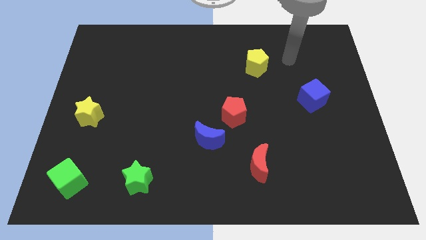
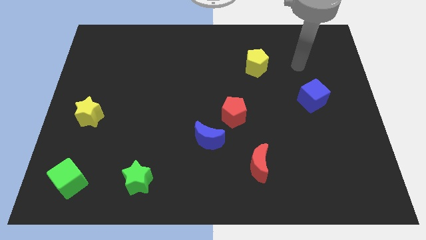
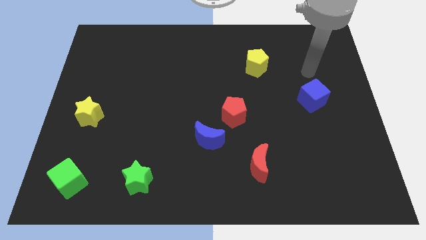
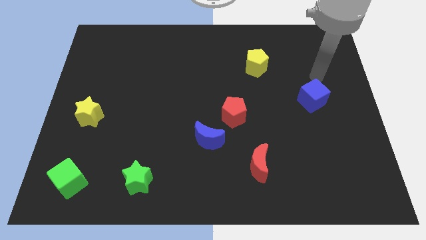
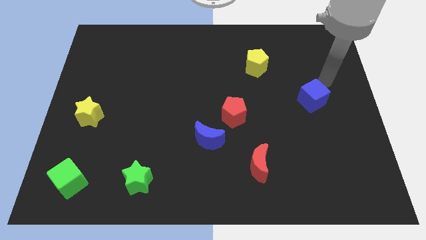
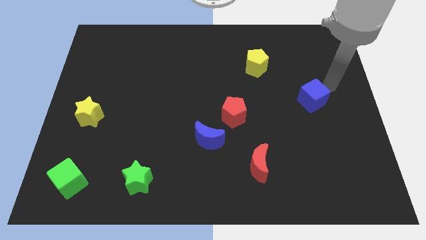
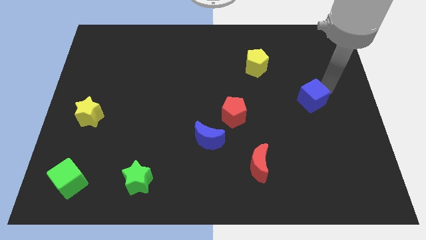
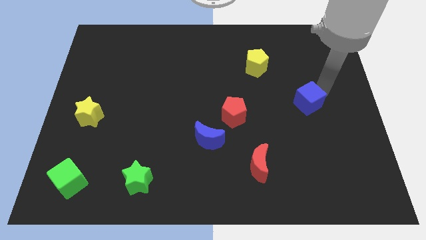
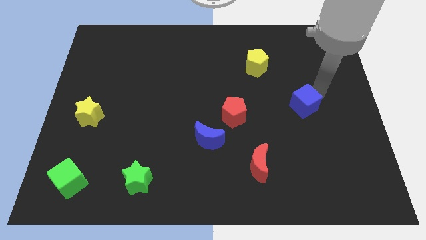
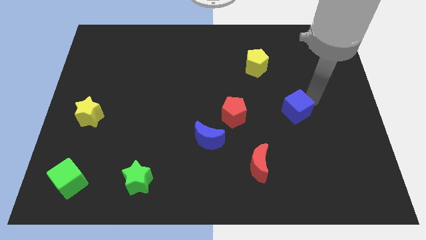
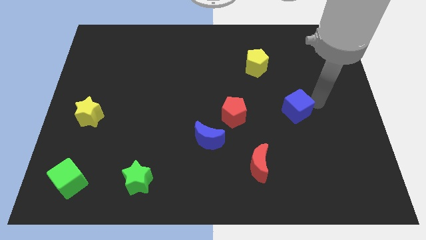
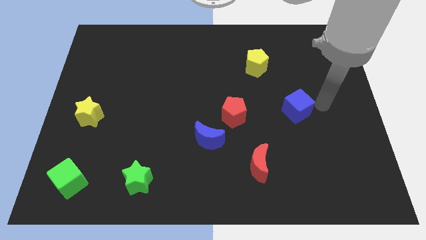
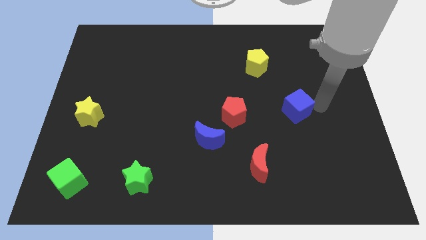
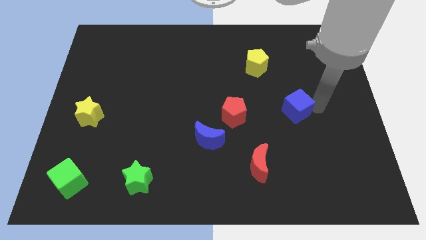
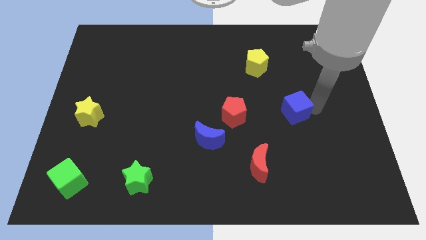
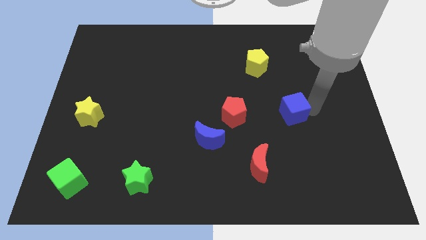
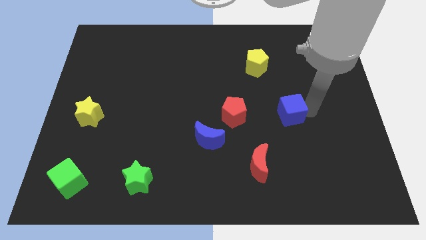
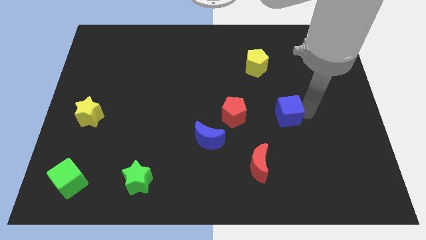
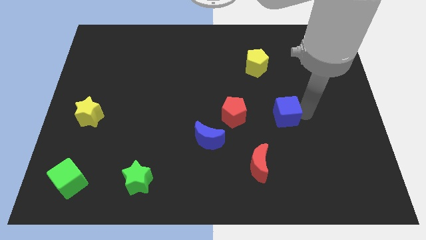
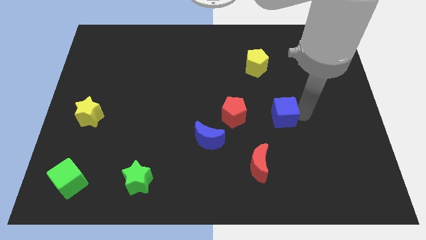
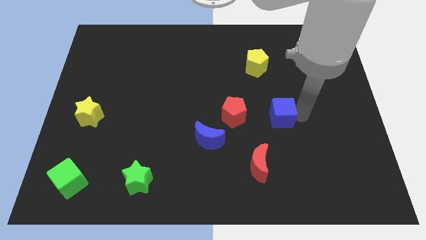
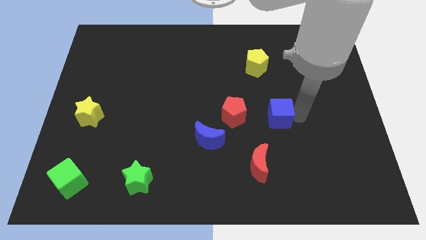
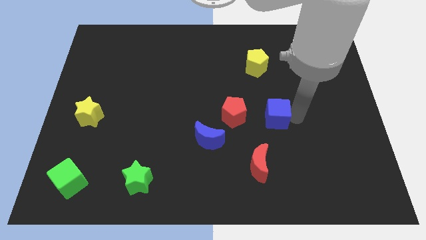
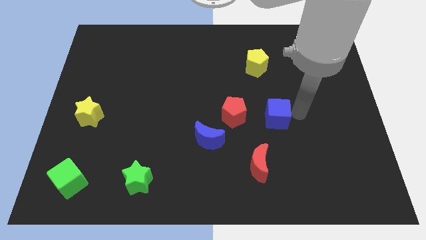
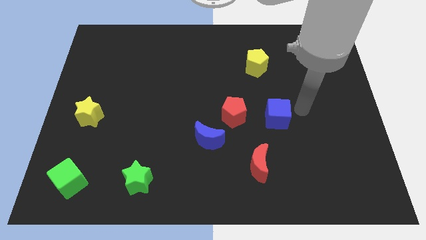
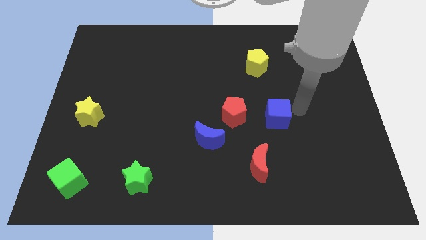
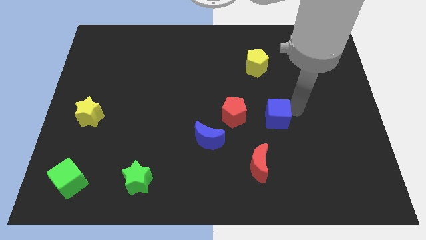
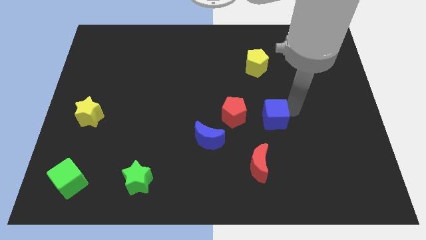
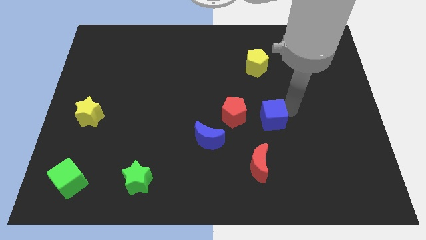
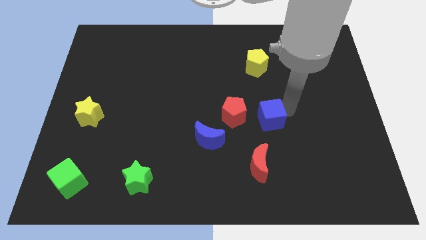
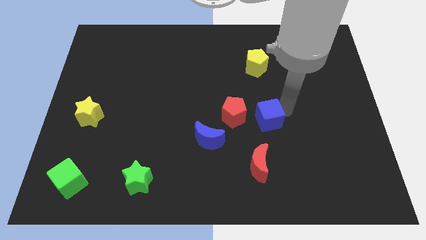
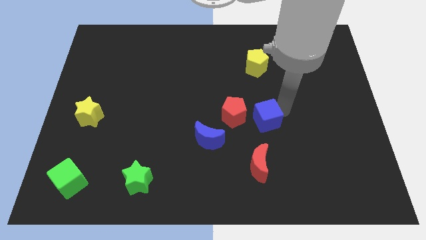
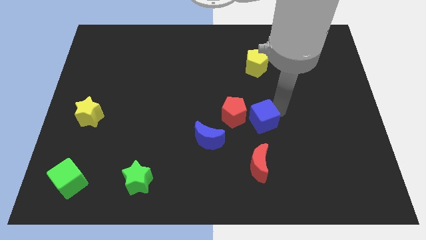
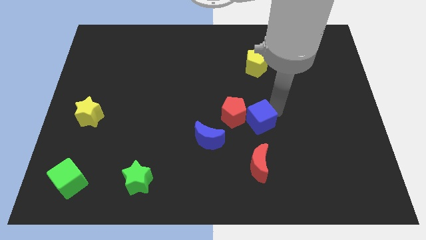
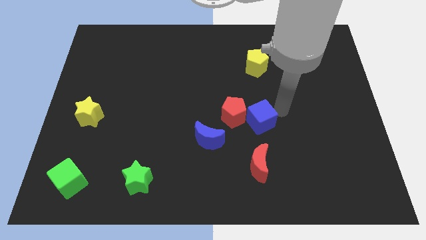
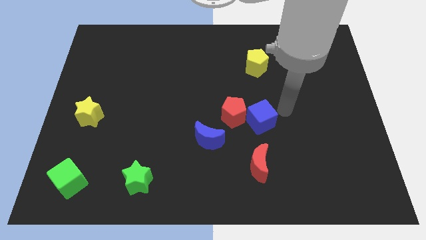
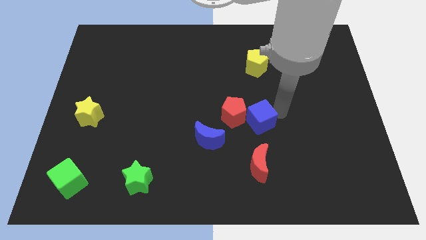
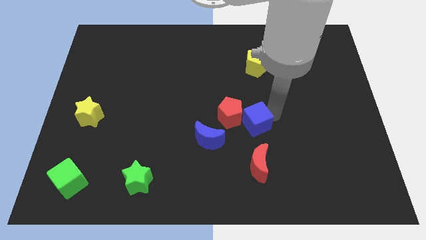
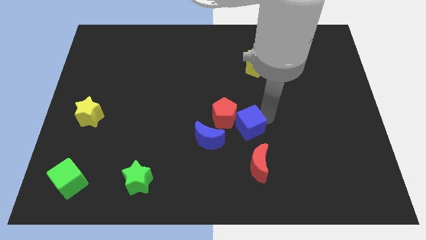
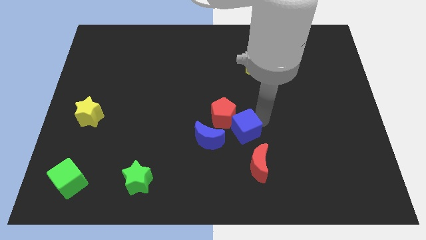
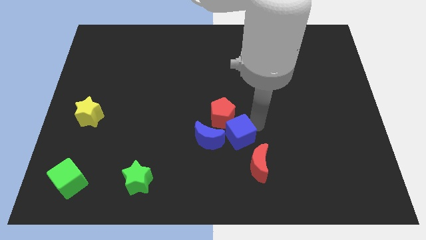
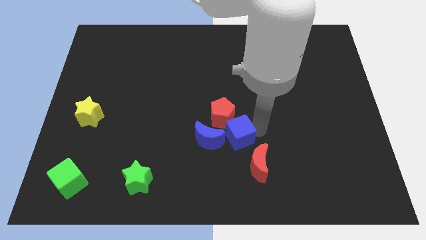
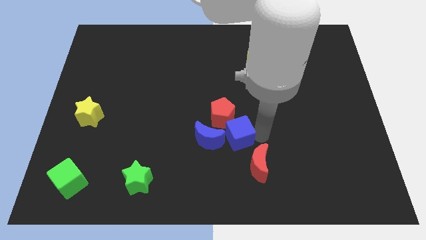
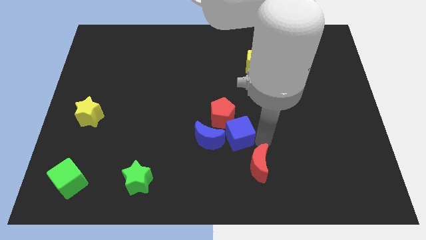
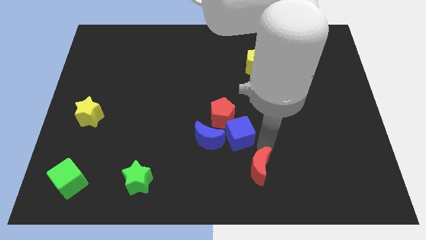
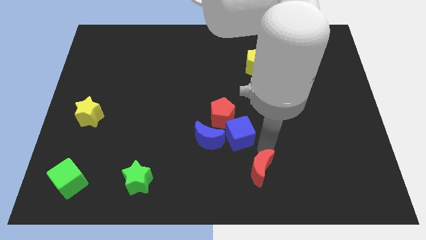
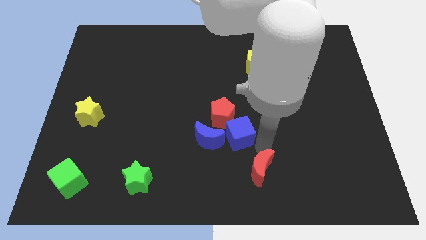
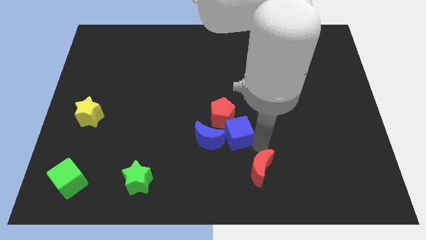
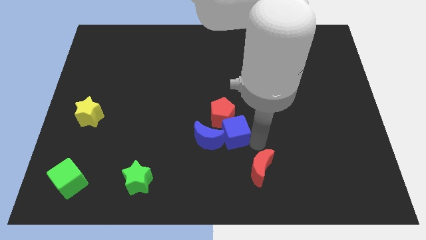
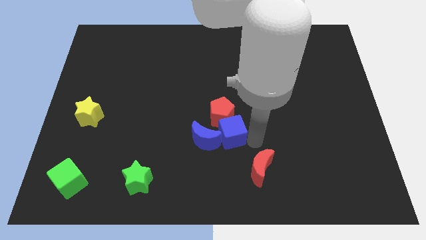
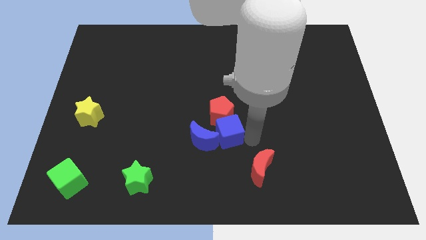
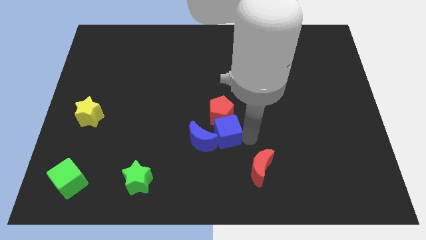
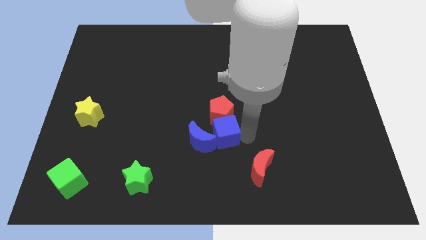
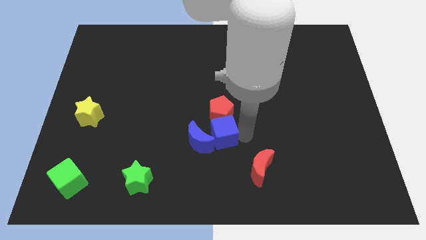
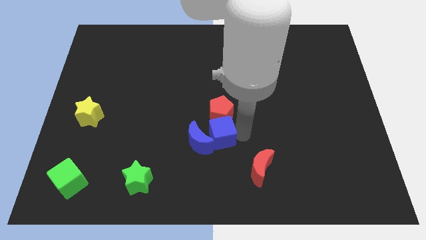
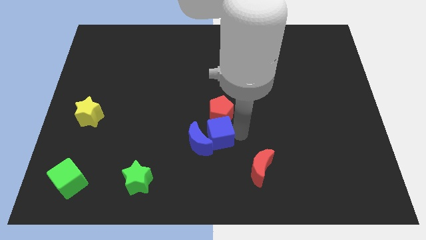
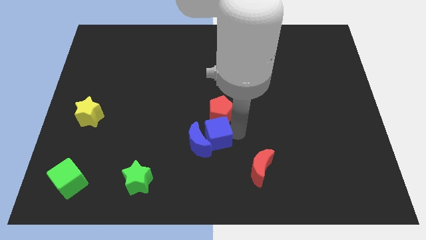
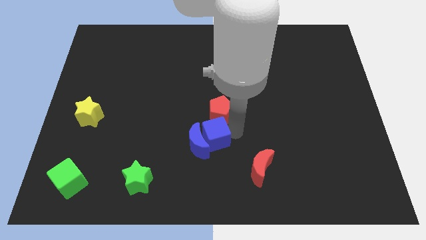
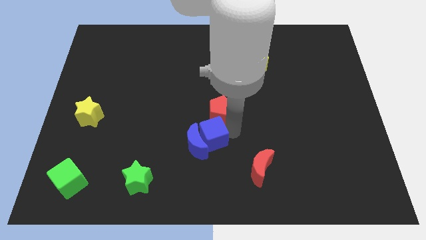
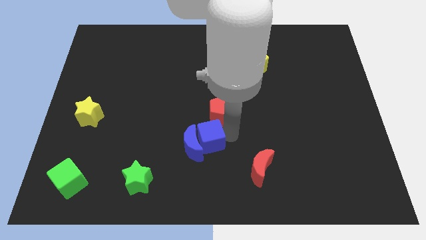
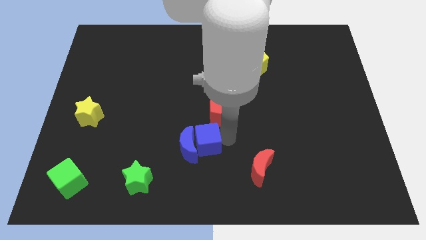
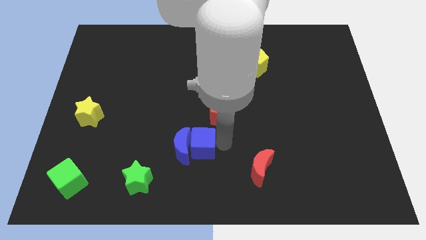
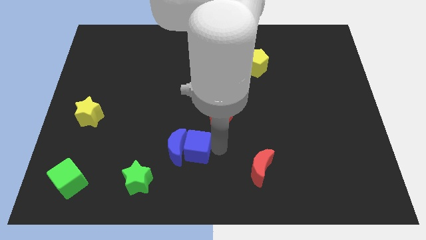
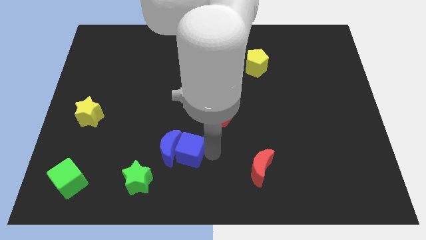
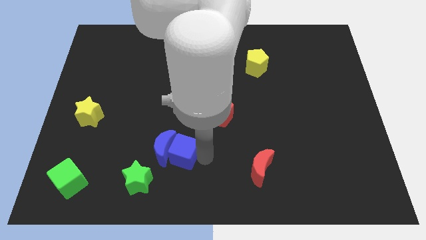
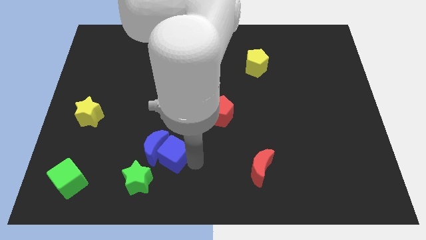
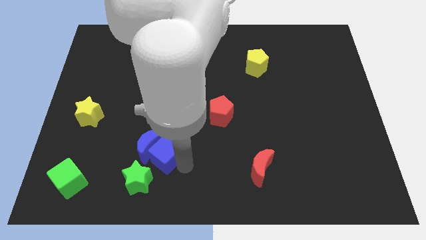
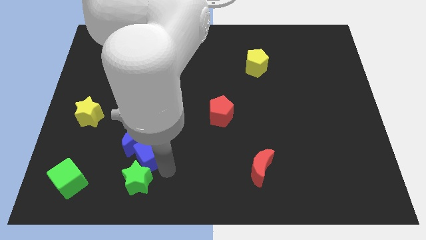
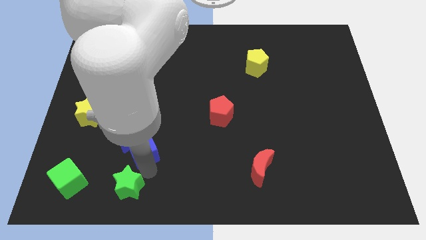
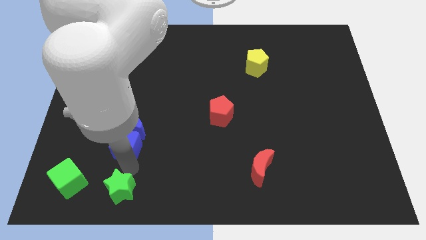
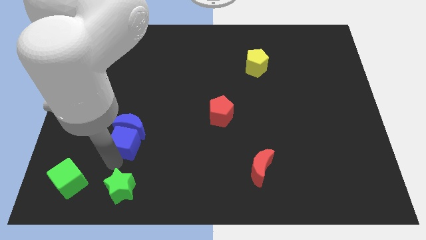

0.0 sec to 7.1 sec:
move the blue cube to the top right of the green cube

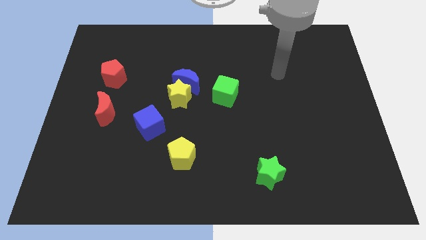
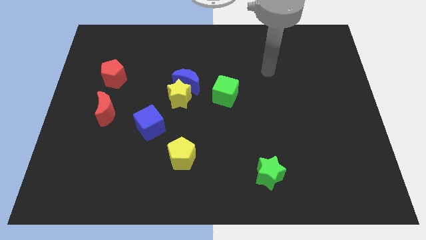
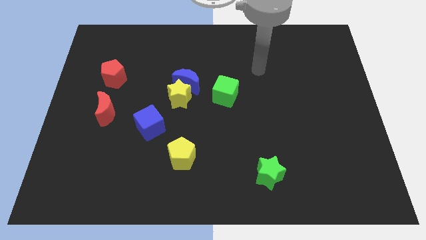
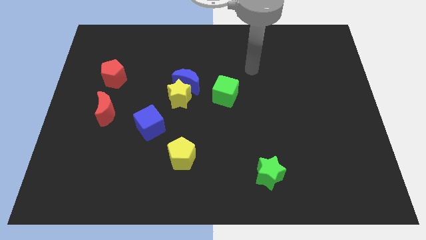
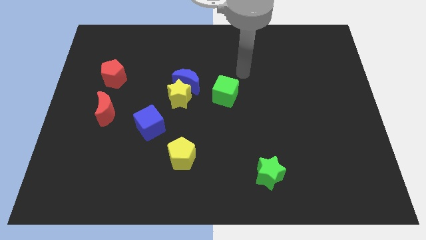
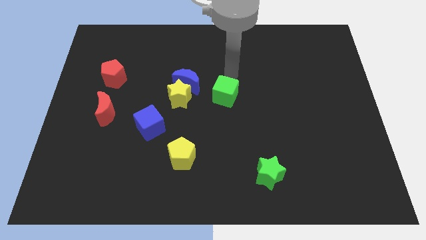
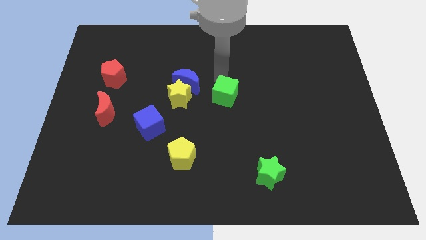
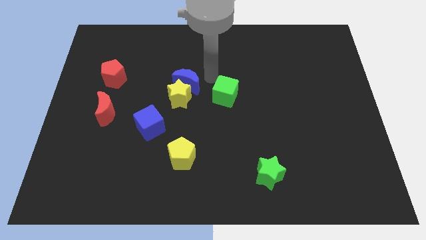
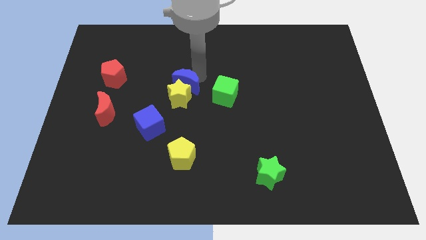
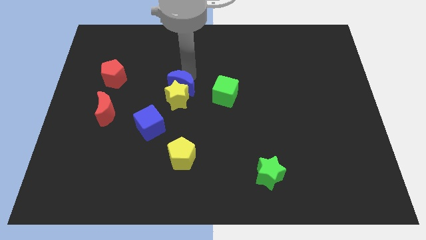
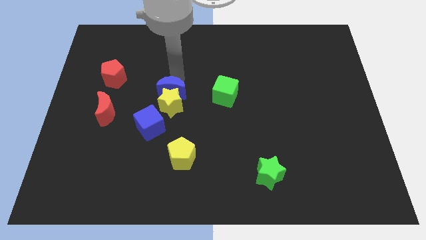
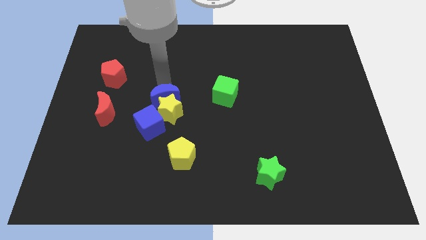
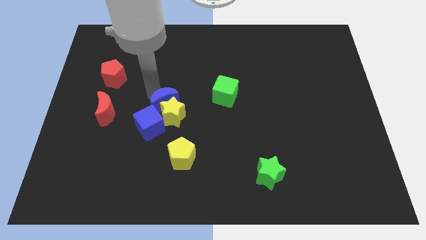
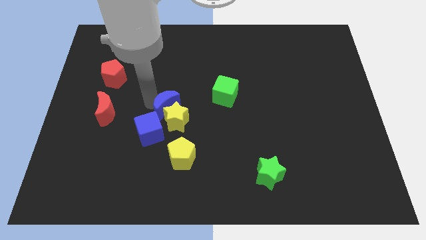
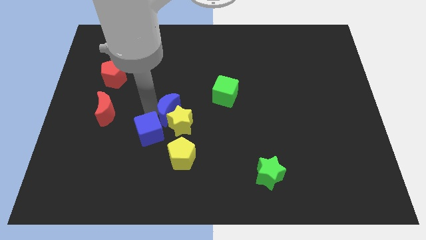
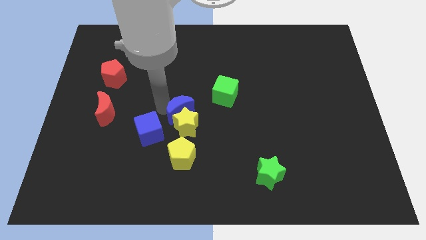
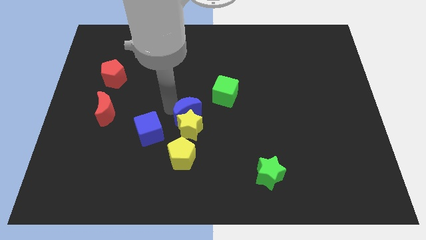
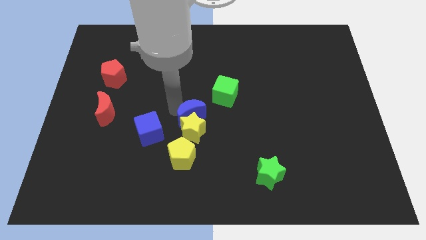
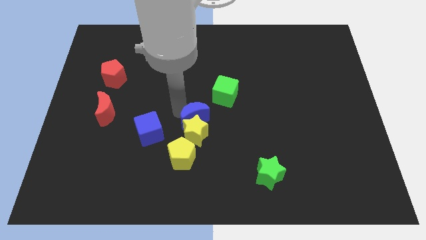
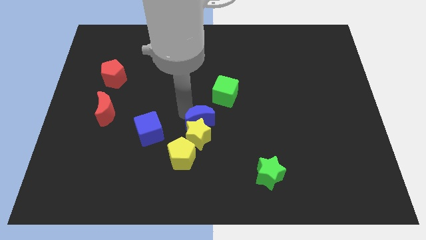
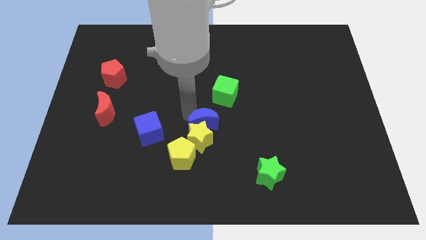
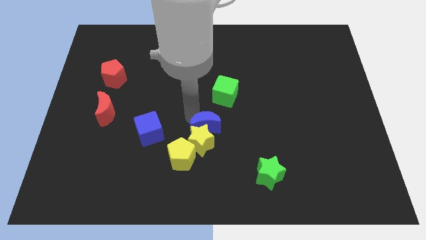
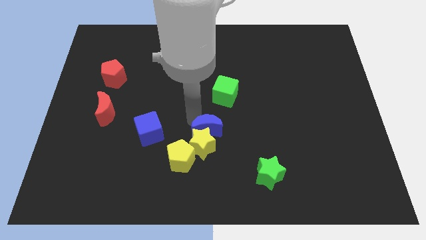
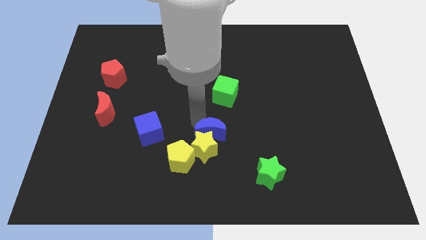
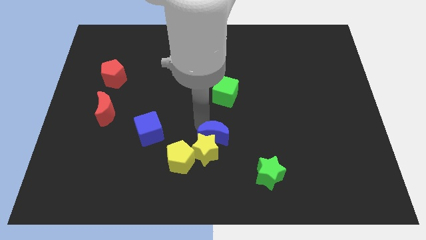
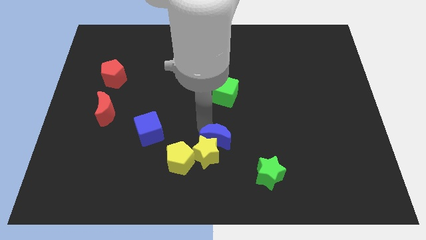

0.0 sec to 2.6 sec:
put the yellow star to the bottom right of the yellow pentagon
